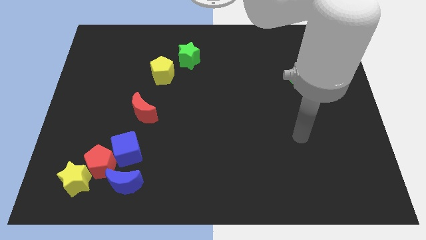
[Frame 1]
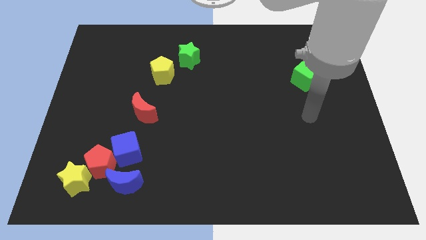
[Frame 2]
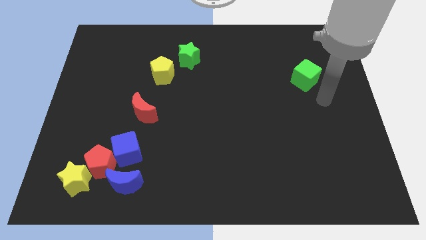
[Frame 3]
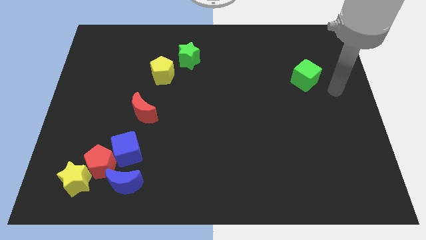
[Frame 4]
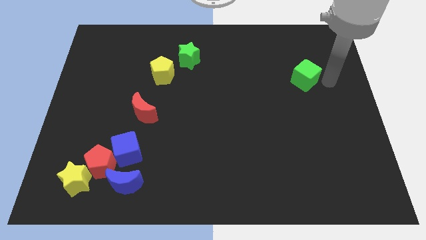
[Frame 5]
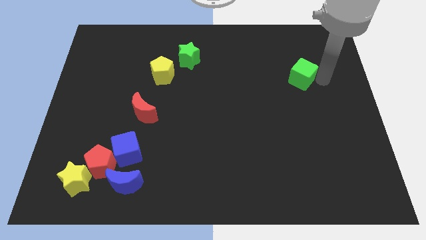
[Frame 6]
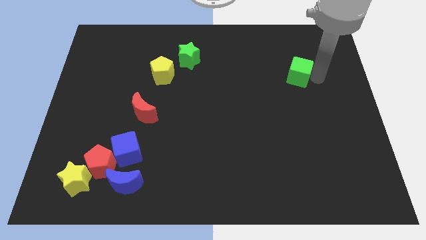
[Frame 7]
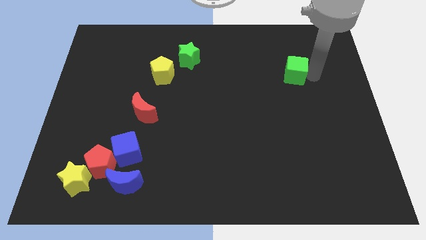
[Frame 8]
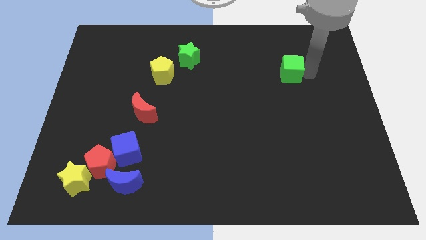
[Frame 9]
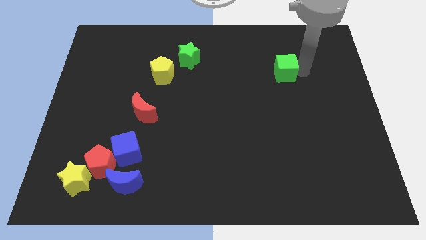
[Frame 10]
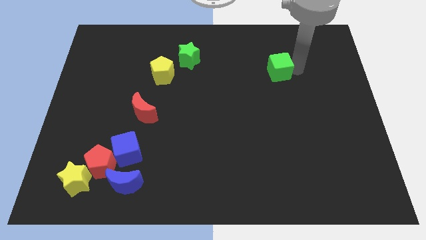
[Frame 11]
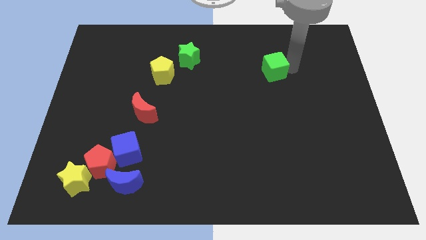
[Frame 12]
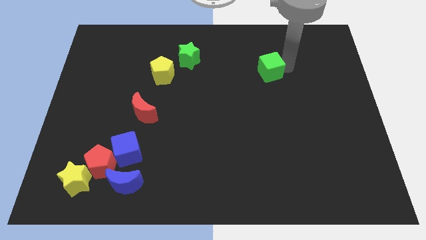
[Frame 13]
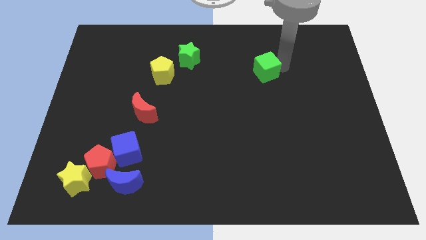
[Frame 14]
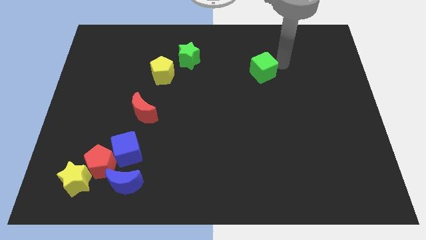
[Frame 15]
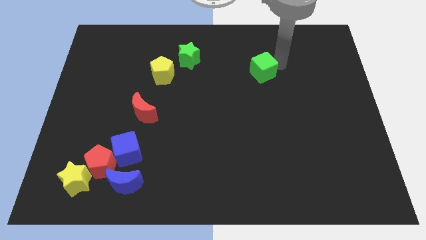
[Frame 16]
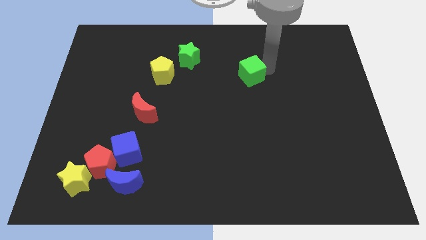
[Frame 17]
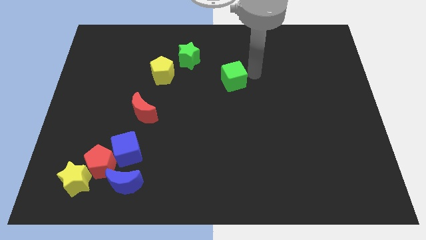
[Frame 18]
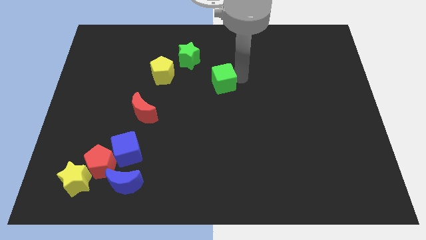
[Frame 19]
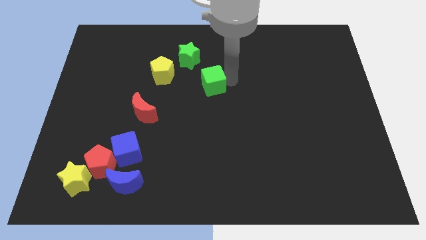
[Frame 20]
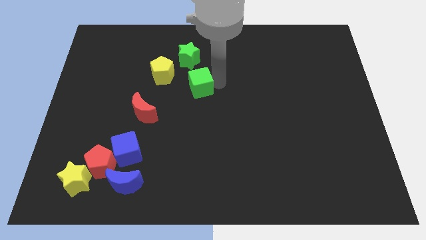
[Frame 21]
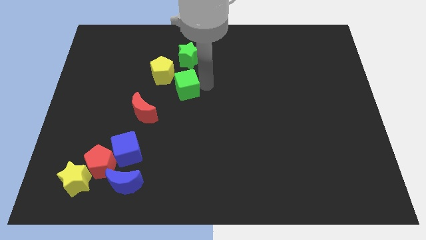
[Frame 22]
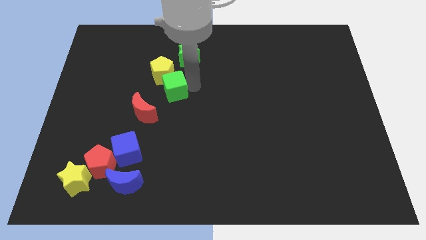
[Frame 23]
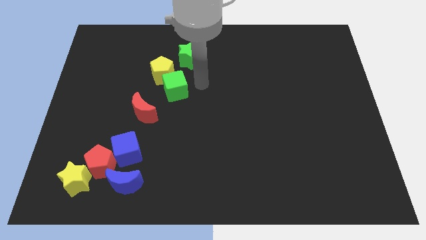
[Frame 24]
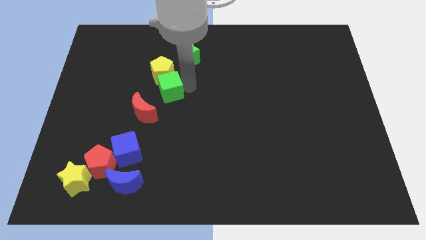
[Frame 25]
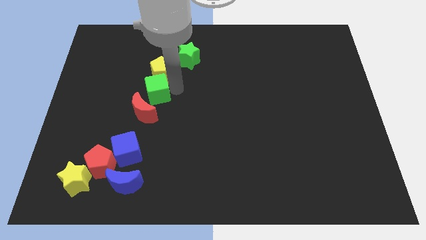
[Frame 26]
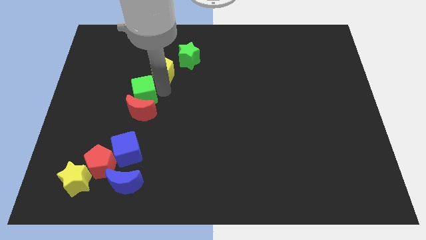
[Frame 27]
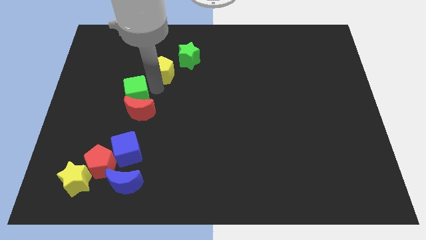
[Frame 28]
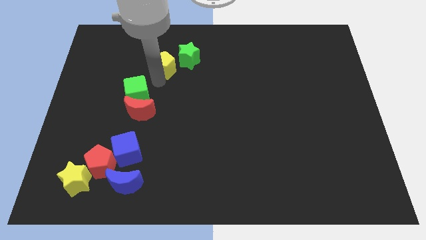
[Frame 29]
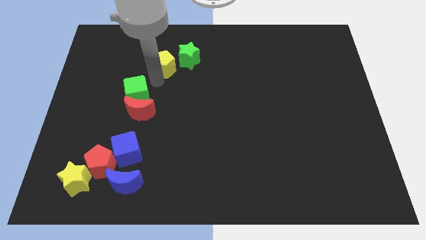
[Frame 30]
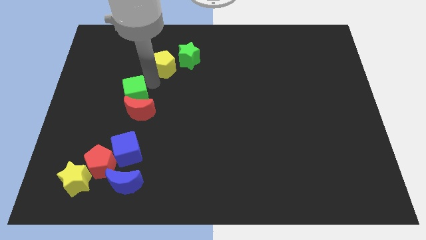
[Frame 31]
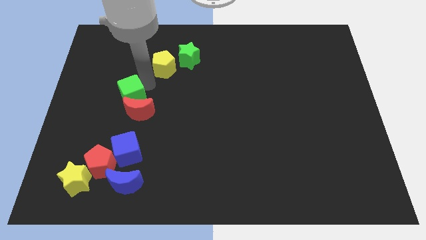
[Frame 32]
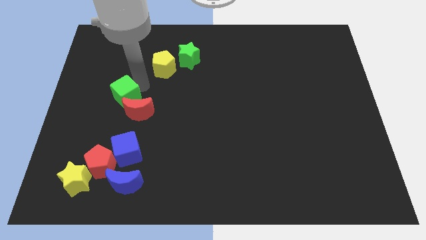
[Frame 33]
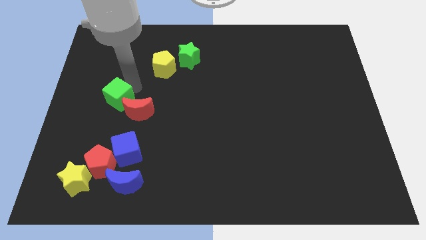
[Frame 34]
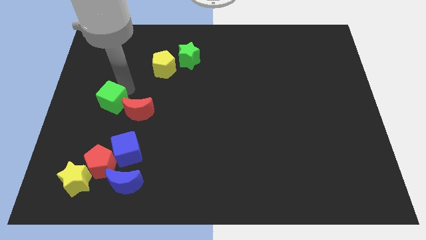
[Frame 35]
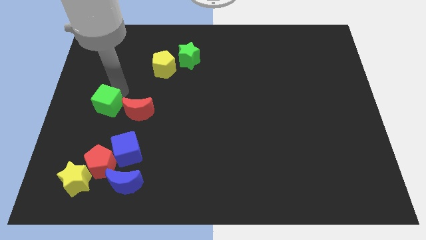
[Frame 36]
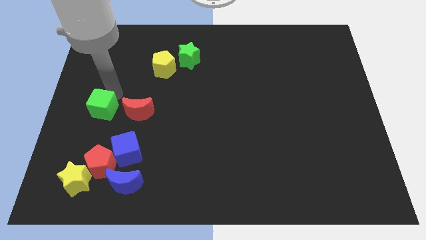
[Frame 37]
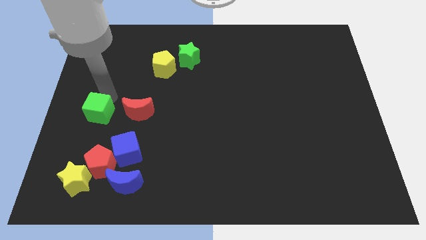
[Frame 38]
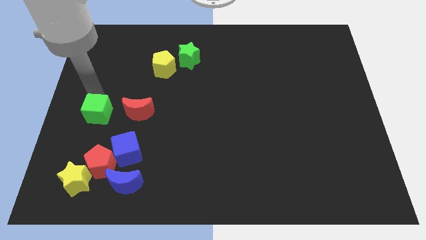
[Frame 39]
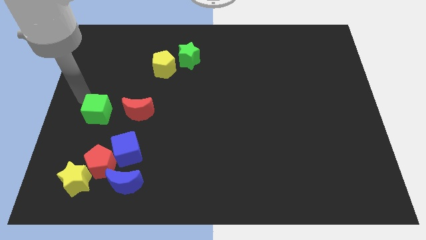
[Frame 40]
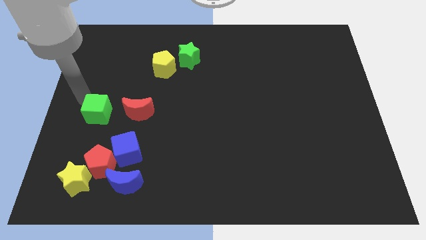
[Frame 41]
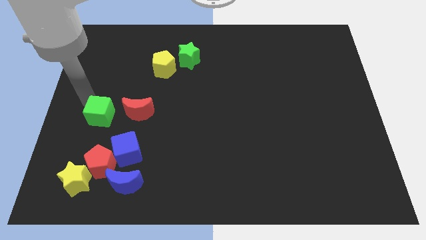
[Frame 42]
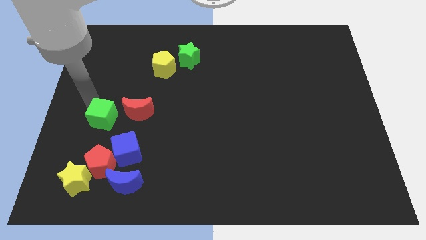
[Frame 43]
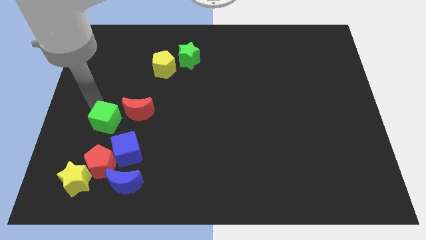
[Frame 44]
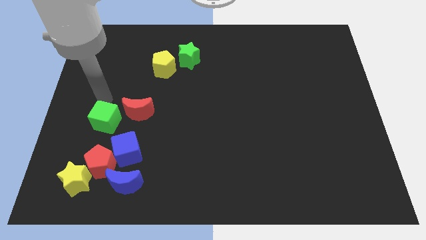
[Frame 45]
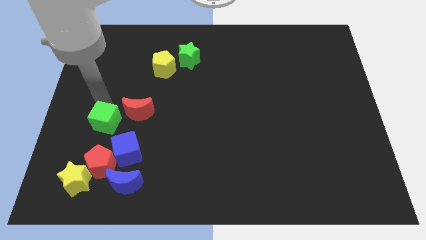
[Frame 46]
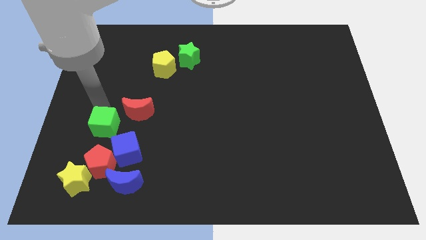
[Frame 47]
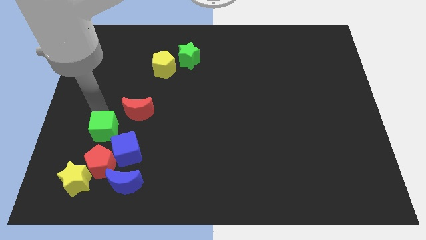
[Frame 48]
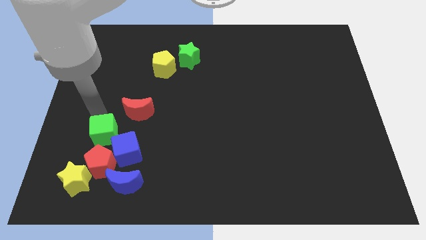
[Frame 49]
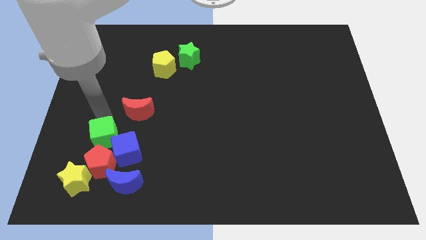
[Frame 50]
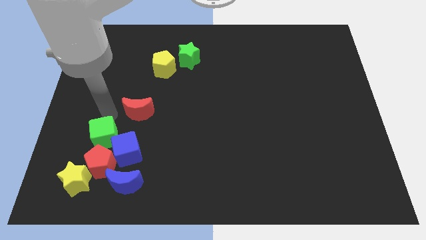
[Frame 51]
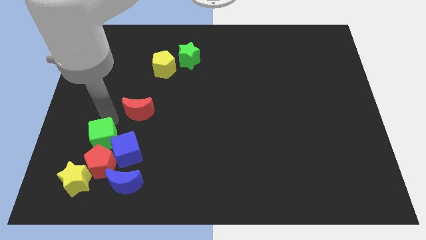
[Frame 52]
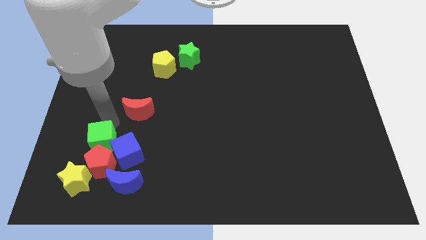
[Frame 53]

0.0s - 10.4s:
move the green cube towards the red pentagon

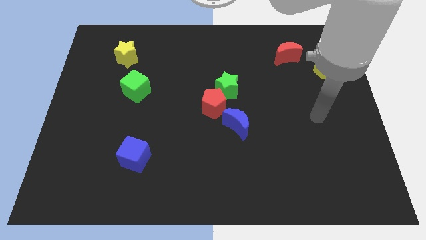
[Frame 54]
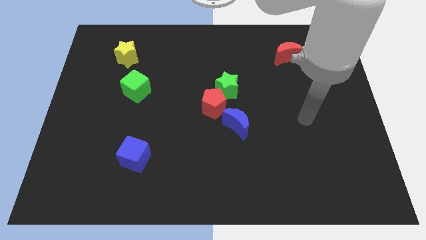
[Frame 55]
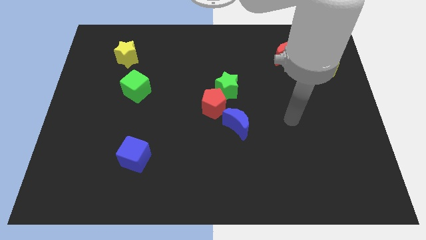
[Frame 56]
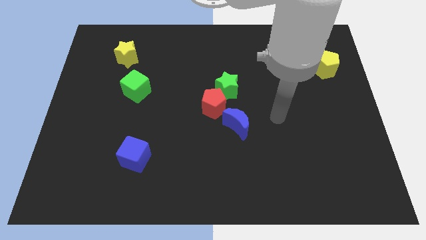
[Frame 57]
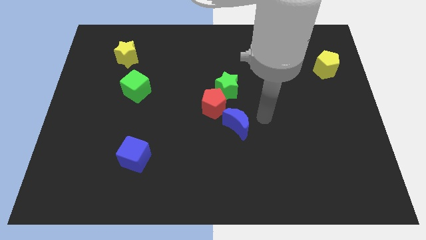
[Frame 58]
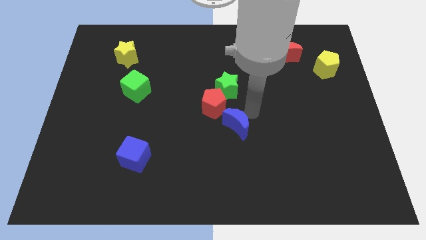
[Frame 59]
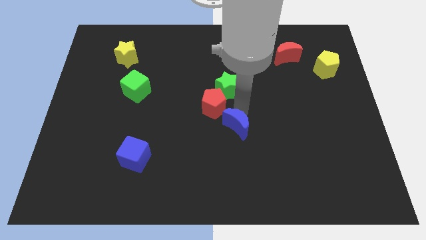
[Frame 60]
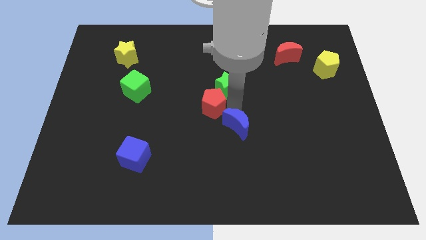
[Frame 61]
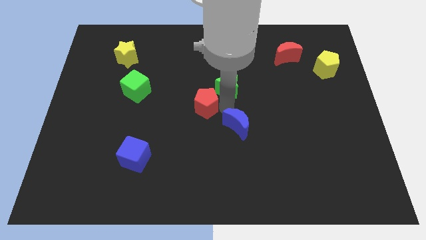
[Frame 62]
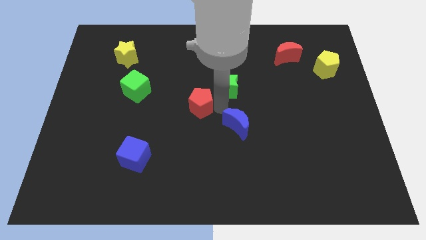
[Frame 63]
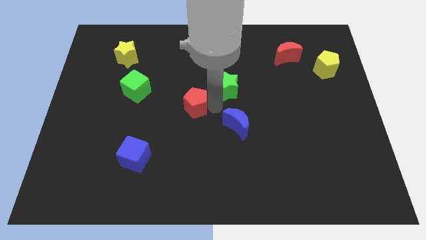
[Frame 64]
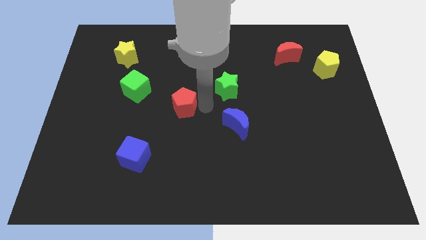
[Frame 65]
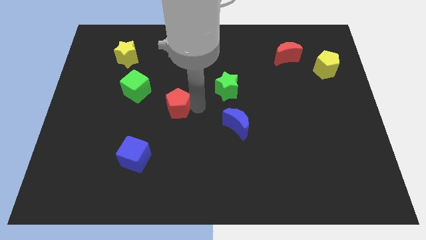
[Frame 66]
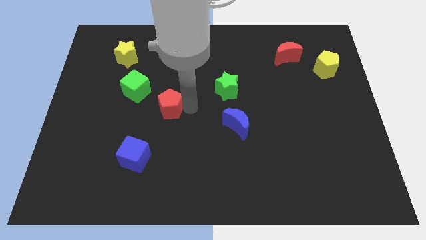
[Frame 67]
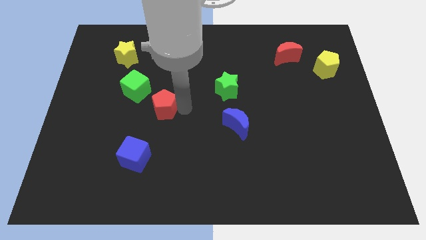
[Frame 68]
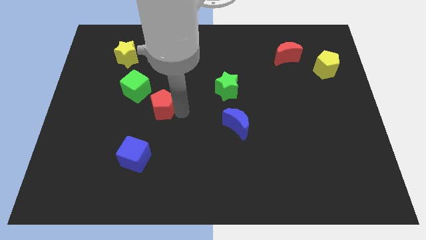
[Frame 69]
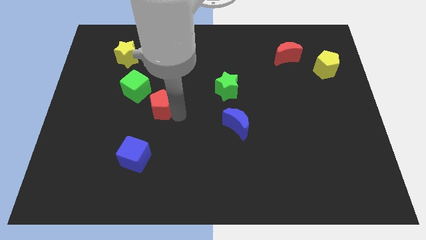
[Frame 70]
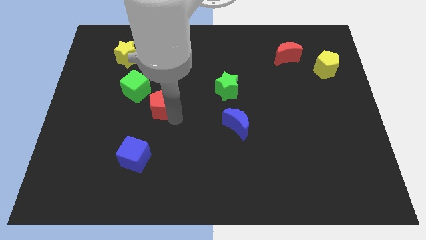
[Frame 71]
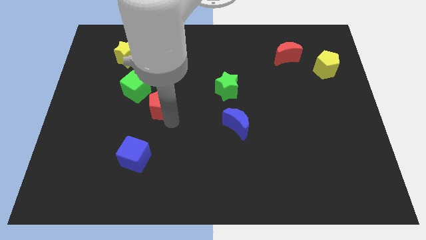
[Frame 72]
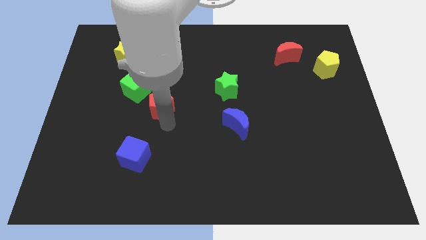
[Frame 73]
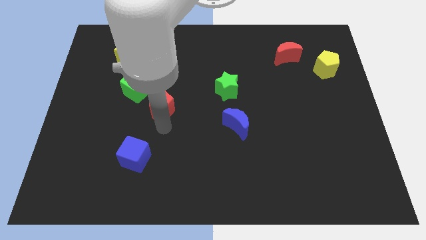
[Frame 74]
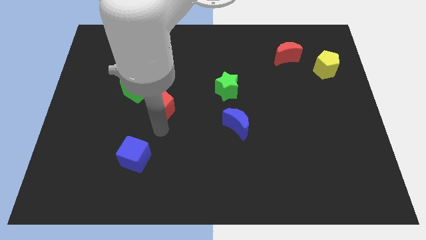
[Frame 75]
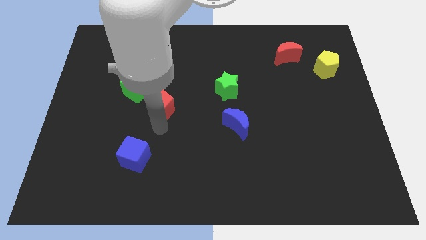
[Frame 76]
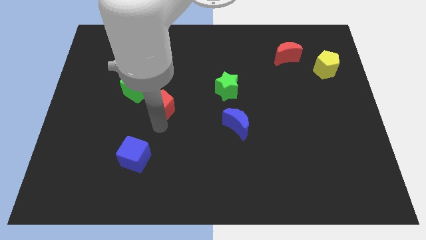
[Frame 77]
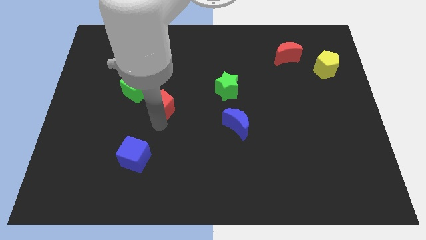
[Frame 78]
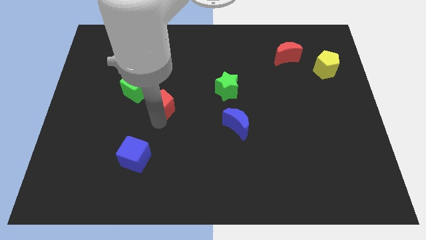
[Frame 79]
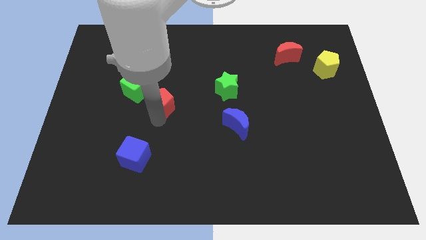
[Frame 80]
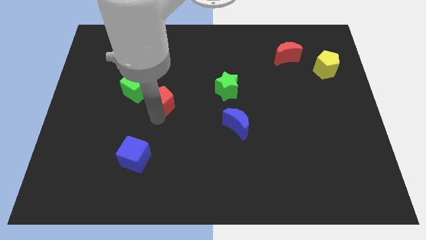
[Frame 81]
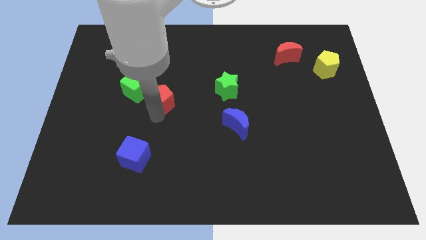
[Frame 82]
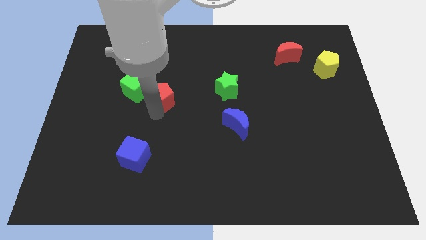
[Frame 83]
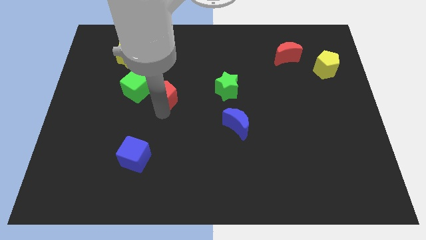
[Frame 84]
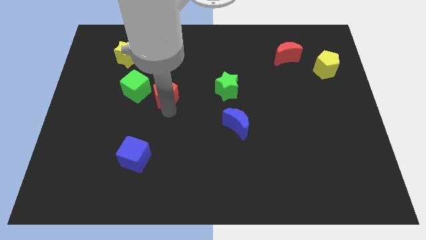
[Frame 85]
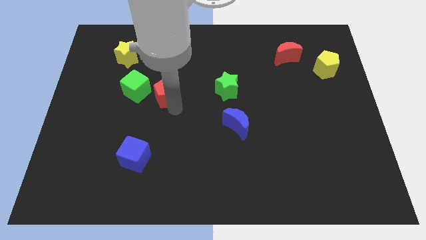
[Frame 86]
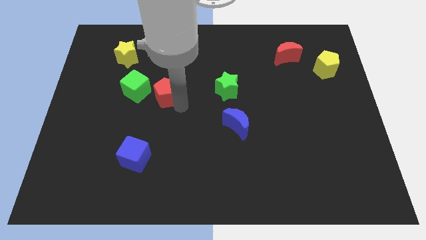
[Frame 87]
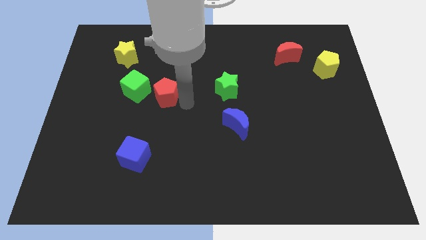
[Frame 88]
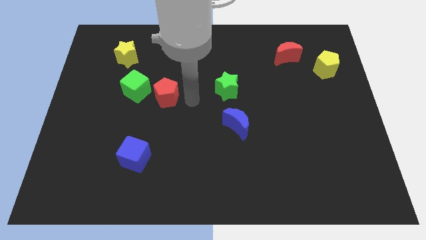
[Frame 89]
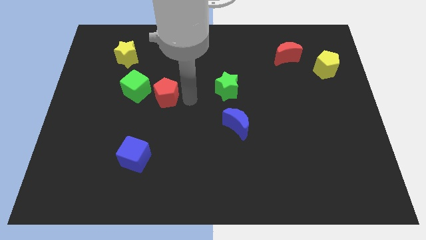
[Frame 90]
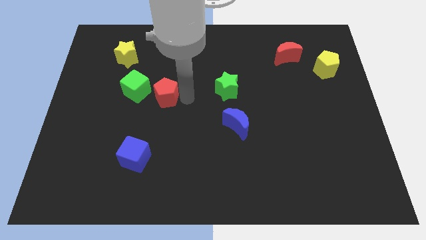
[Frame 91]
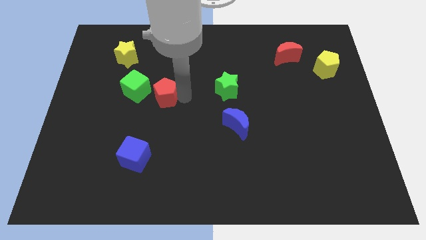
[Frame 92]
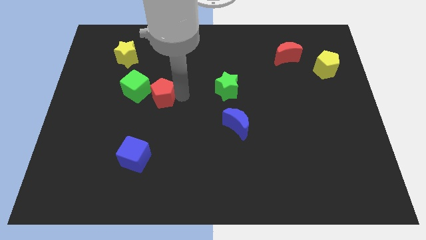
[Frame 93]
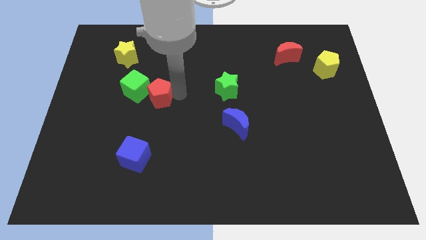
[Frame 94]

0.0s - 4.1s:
slide the red pentagon next to the green cube
